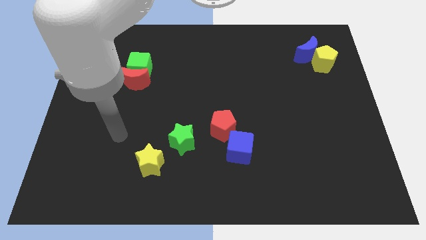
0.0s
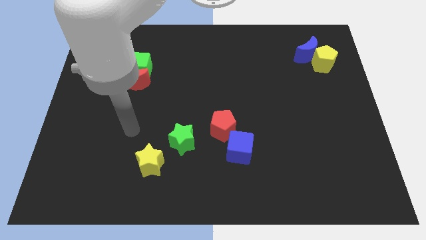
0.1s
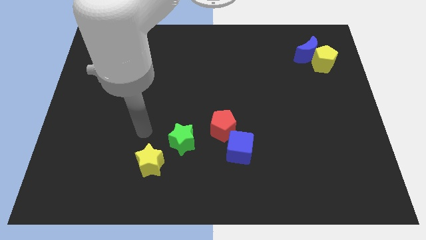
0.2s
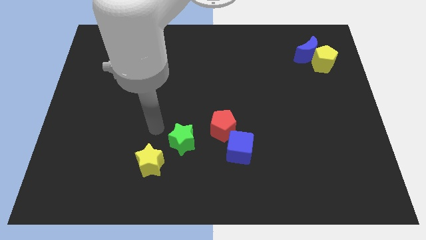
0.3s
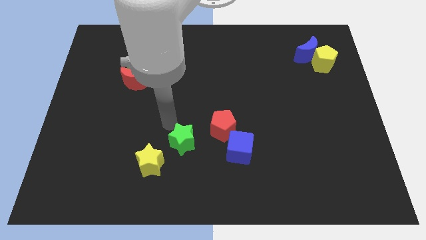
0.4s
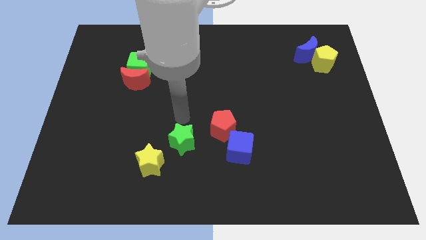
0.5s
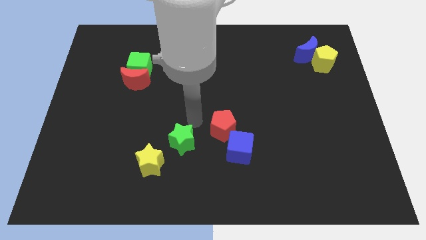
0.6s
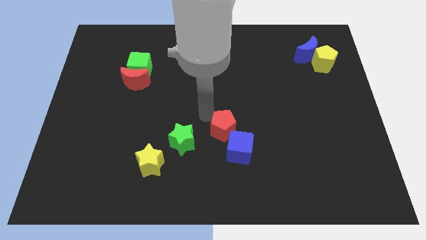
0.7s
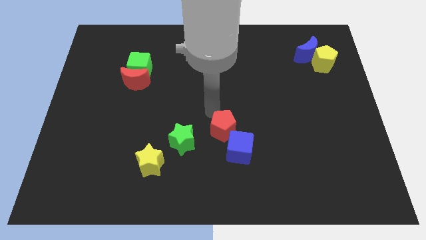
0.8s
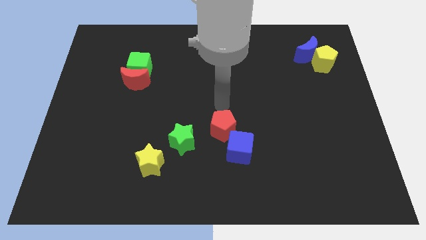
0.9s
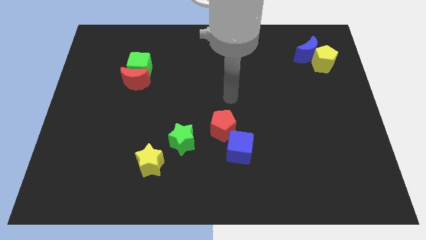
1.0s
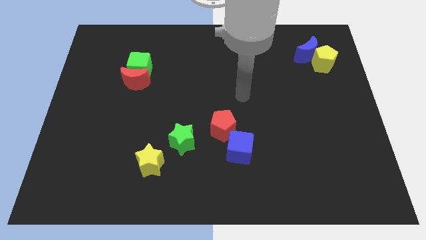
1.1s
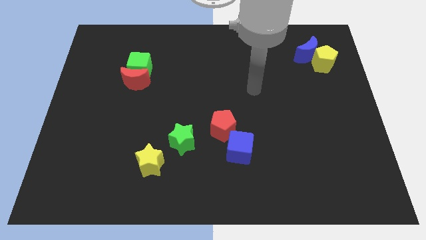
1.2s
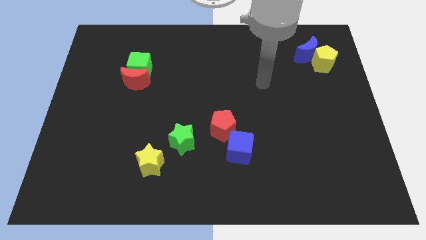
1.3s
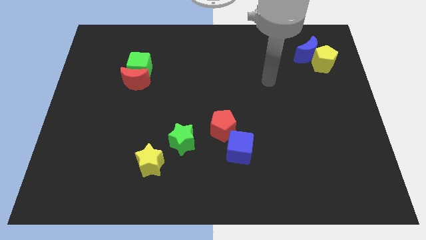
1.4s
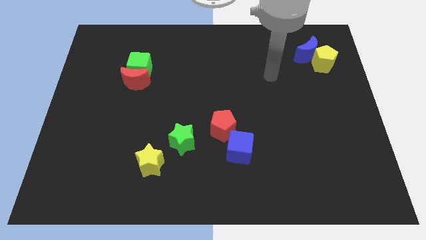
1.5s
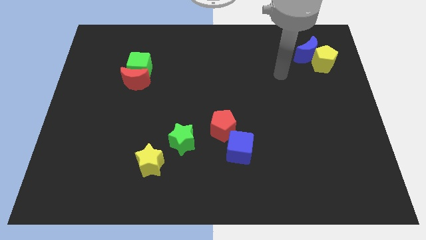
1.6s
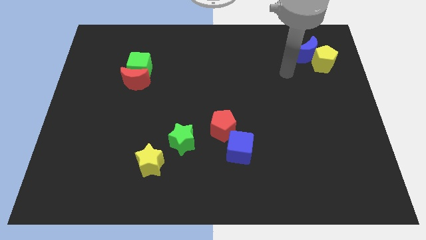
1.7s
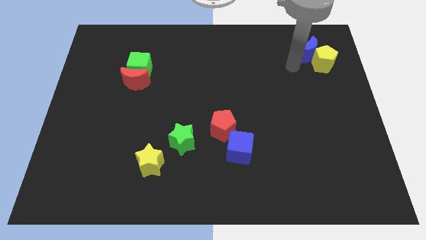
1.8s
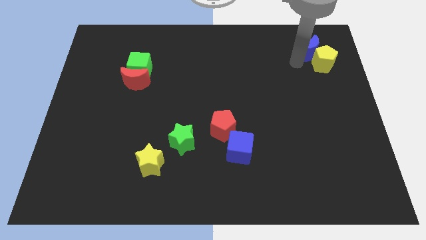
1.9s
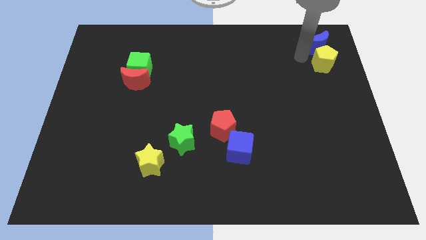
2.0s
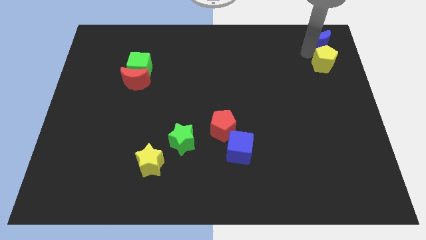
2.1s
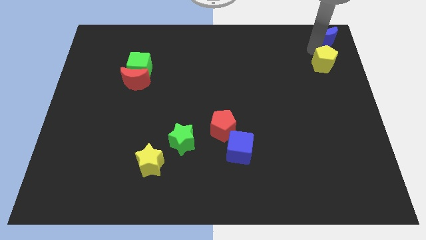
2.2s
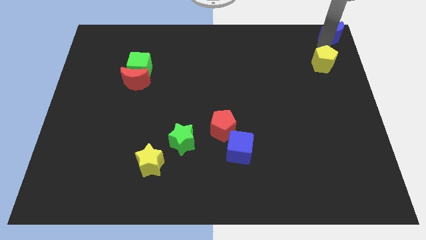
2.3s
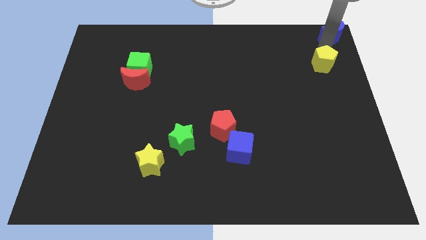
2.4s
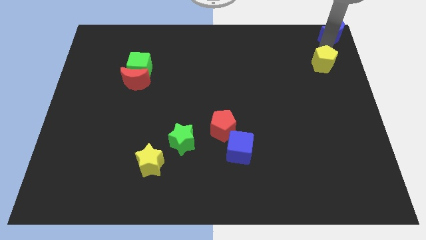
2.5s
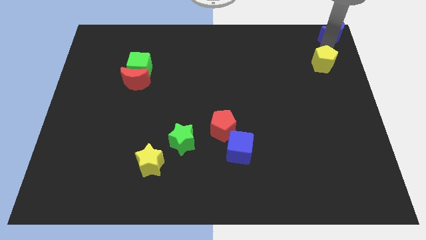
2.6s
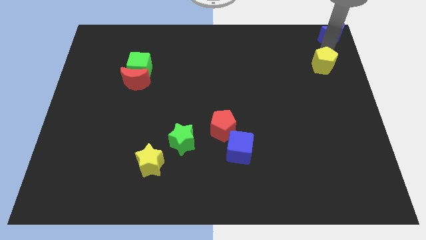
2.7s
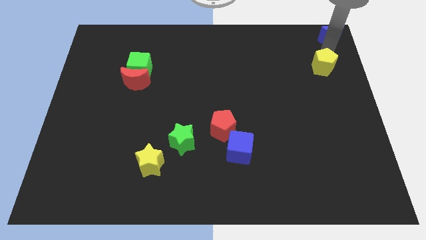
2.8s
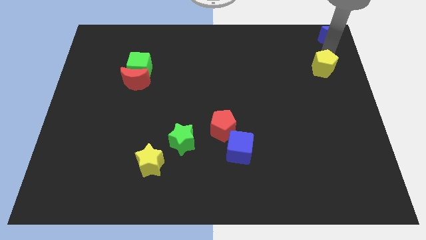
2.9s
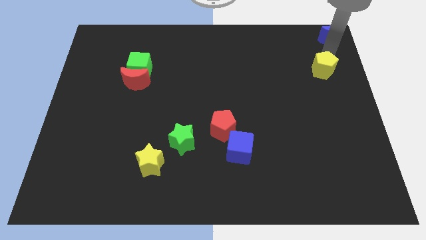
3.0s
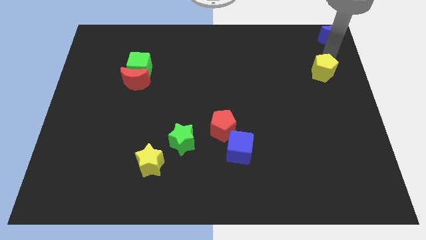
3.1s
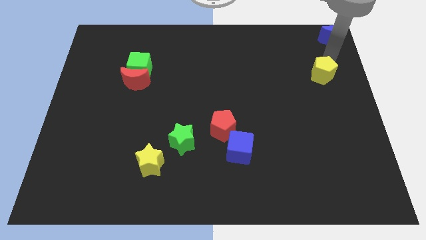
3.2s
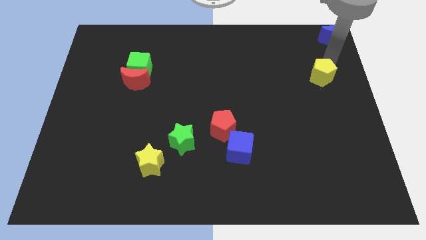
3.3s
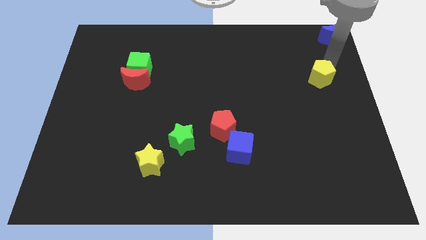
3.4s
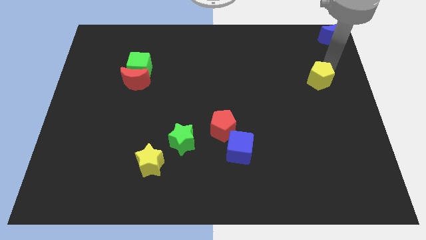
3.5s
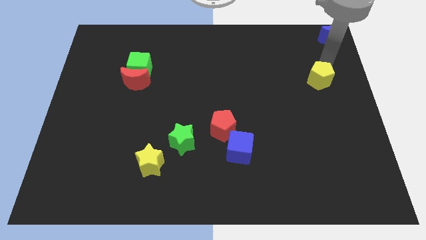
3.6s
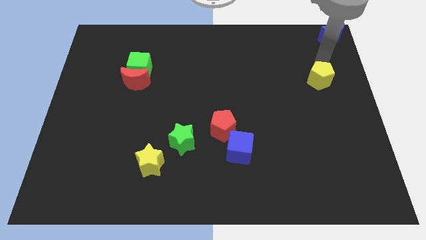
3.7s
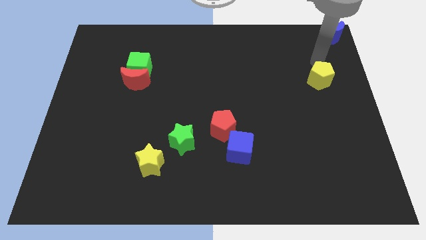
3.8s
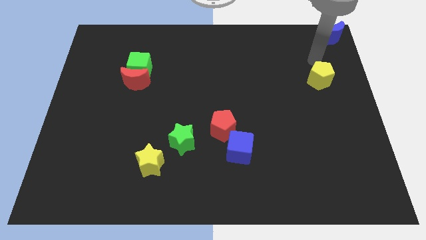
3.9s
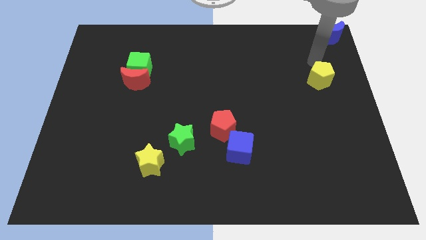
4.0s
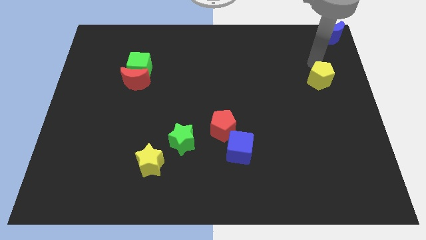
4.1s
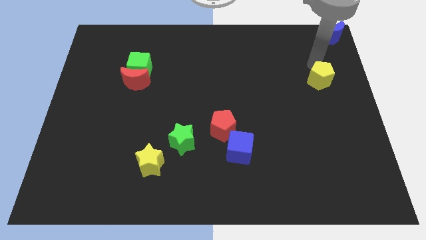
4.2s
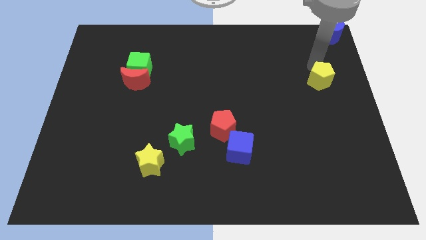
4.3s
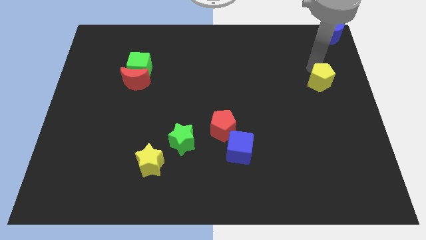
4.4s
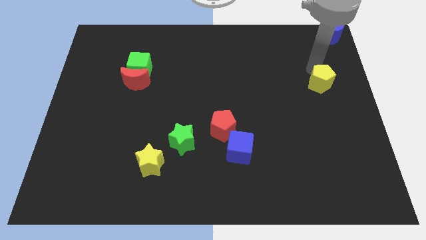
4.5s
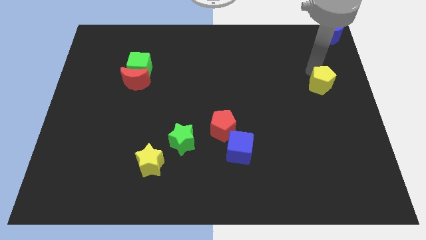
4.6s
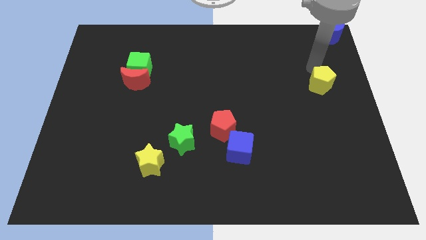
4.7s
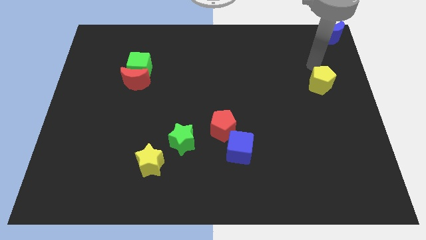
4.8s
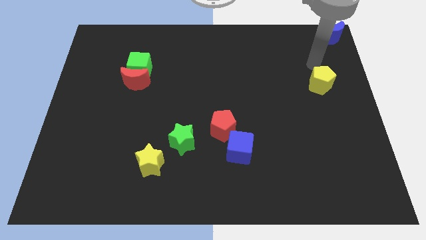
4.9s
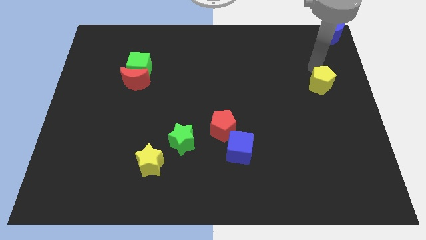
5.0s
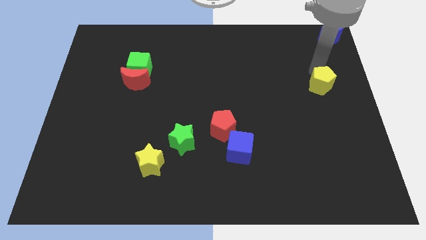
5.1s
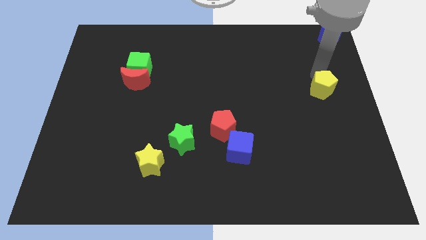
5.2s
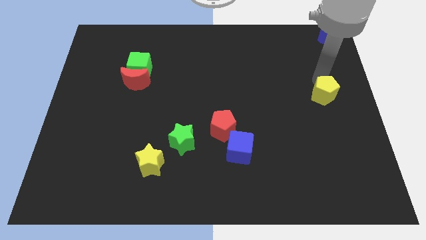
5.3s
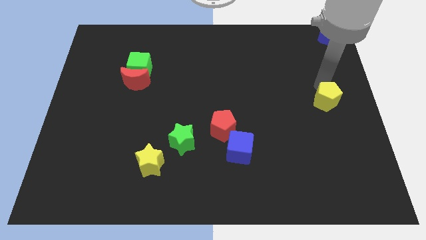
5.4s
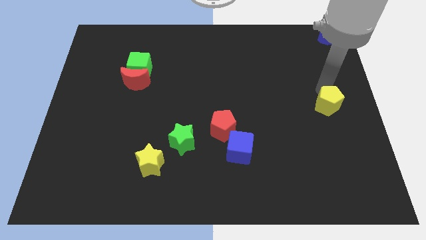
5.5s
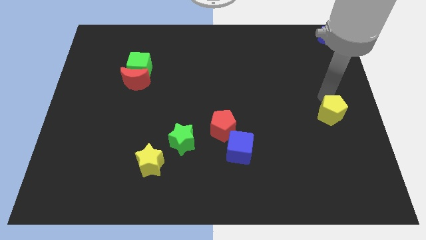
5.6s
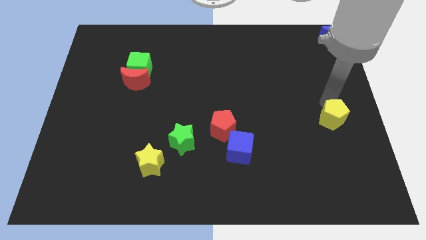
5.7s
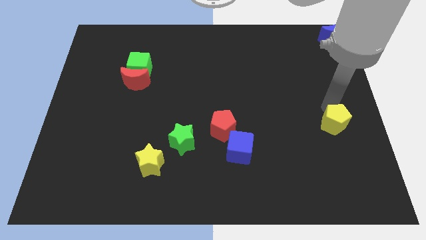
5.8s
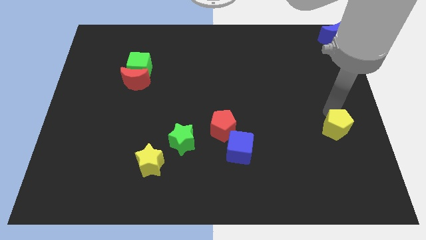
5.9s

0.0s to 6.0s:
move the yellow pentagon down

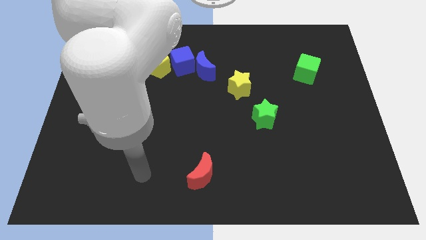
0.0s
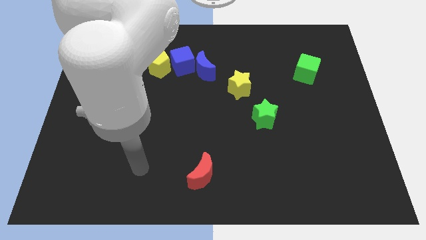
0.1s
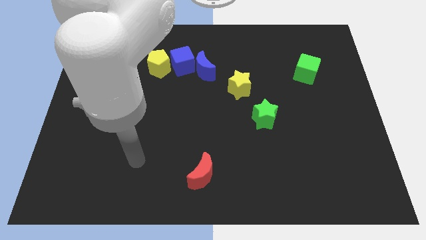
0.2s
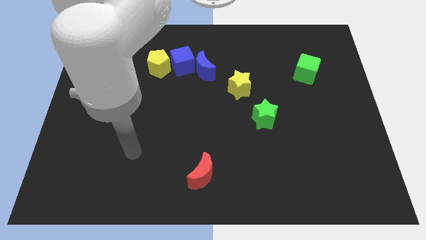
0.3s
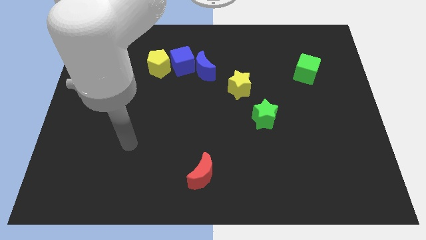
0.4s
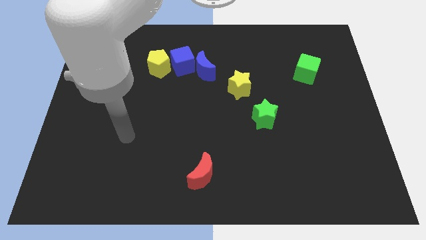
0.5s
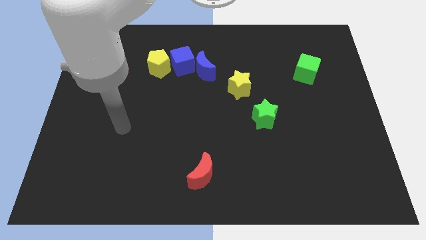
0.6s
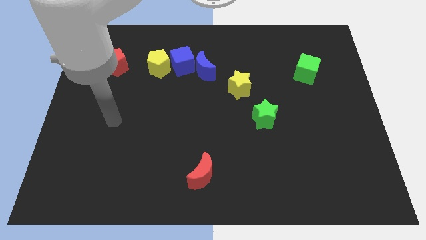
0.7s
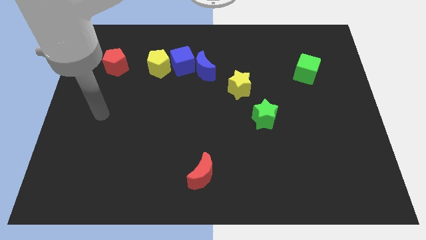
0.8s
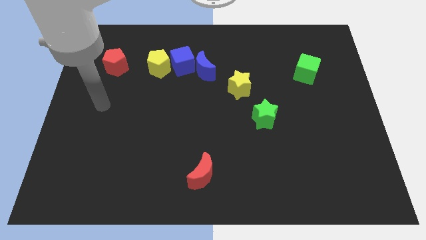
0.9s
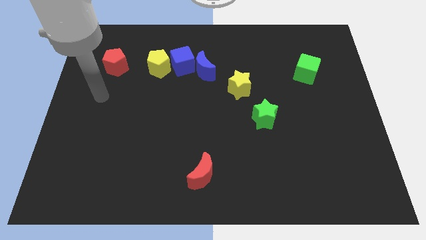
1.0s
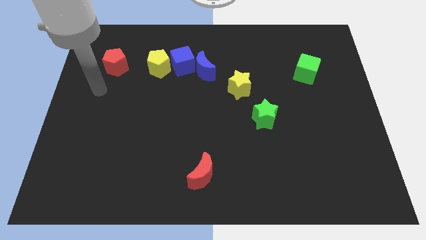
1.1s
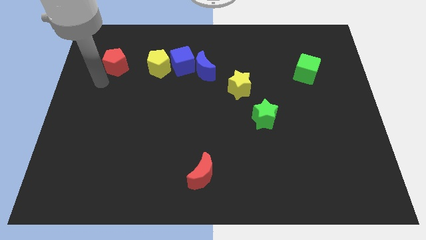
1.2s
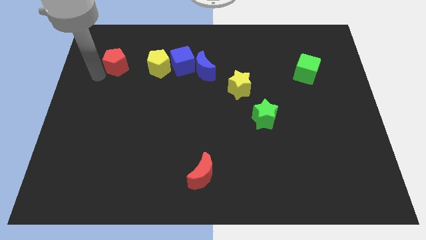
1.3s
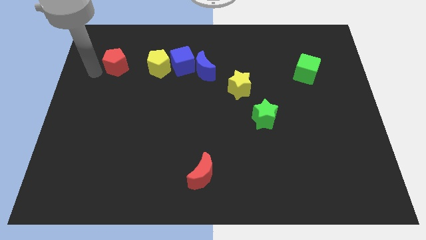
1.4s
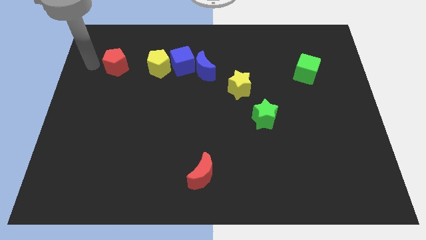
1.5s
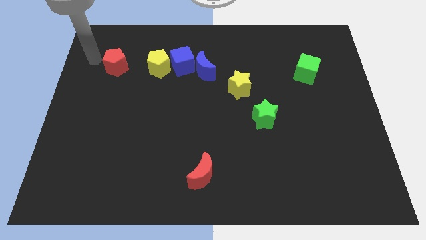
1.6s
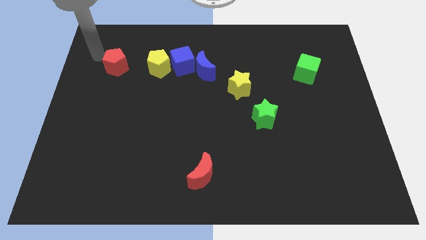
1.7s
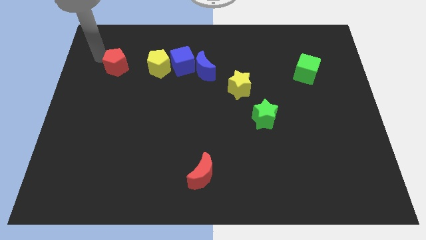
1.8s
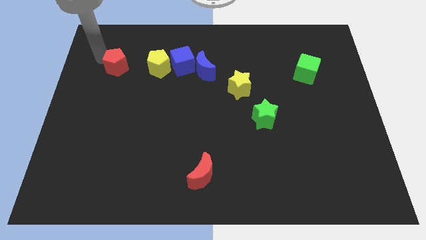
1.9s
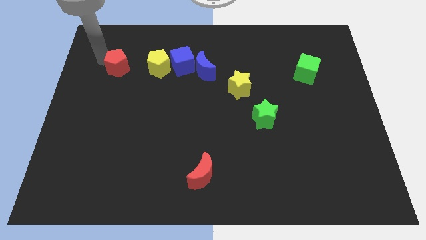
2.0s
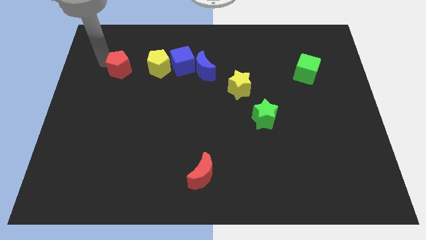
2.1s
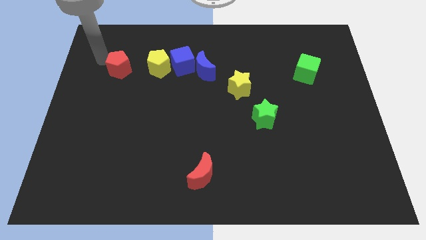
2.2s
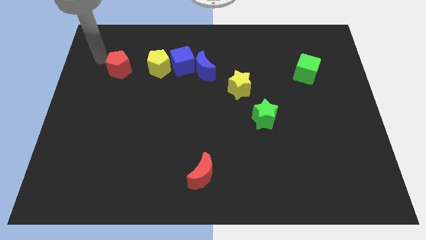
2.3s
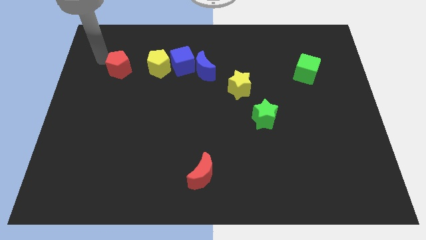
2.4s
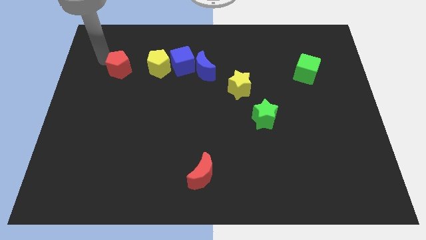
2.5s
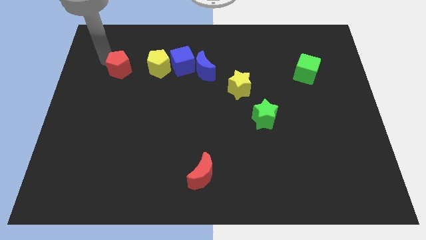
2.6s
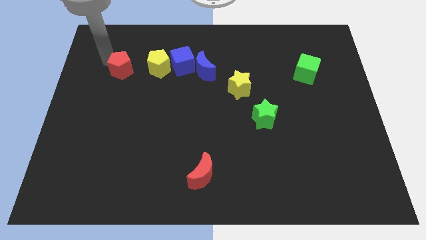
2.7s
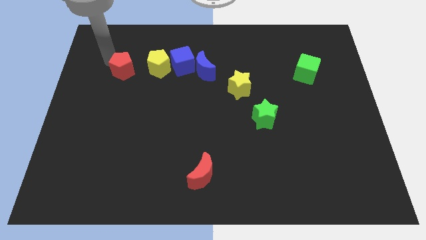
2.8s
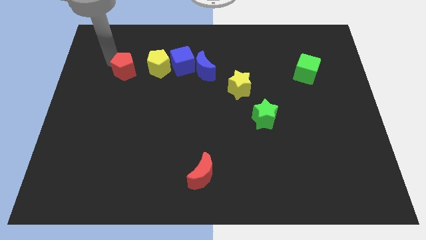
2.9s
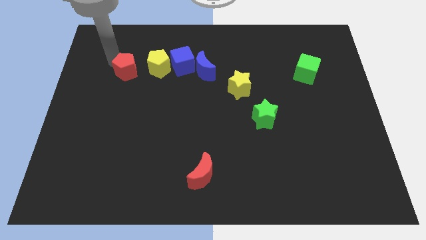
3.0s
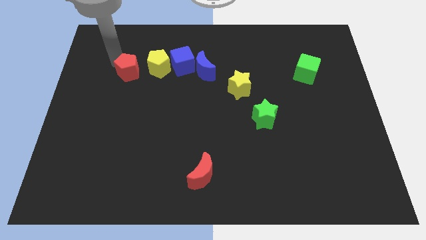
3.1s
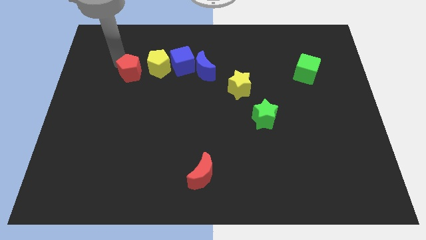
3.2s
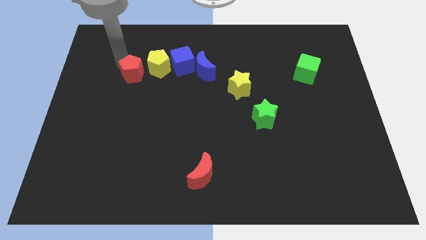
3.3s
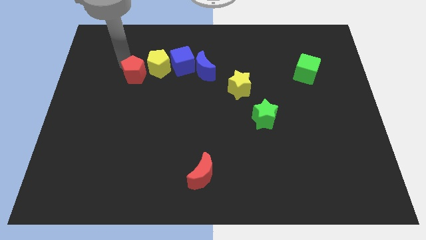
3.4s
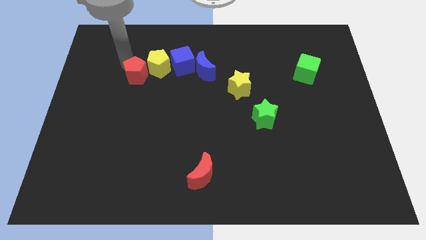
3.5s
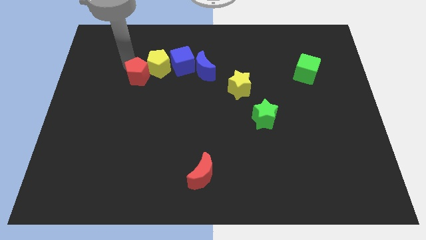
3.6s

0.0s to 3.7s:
push the red pentagon a bit down and right diagonally
